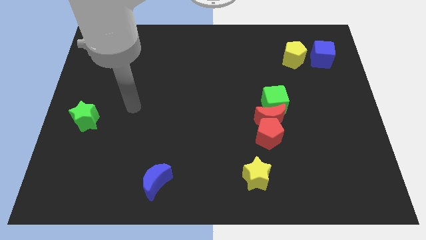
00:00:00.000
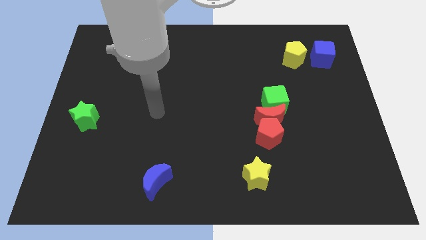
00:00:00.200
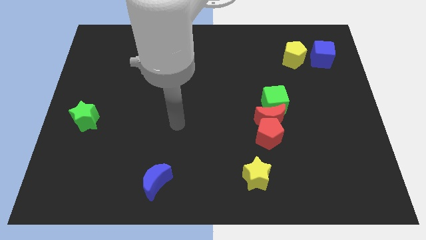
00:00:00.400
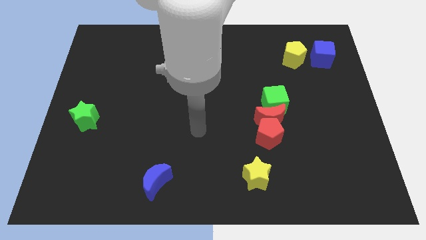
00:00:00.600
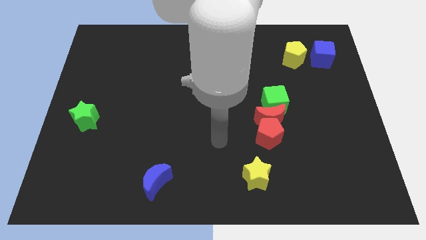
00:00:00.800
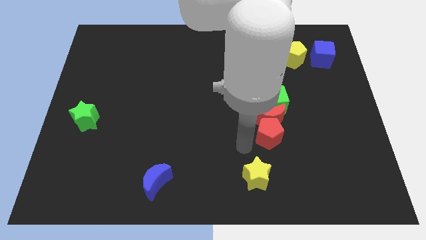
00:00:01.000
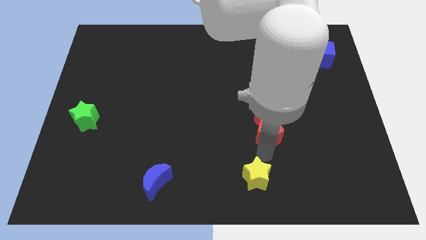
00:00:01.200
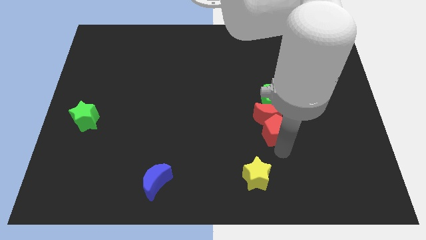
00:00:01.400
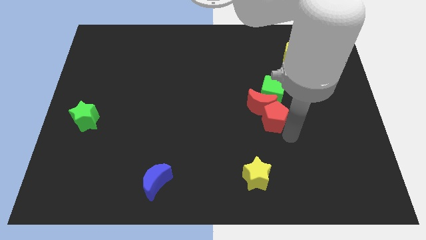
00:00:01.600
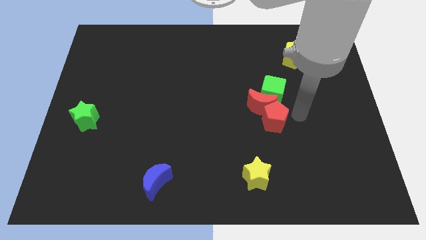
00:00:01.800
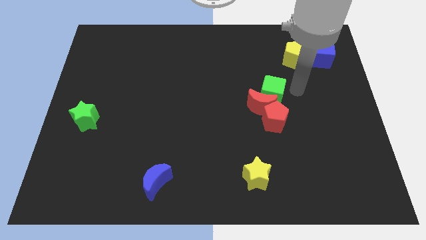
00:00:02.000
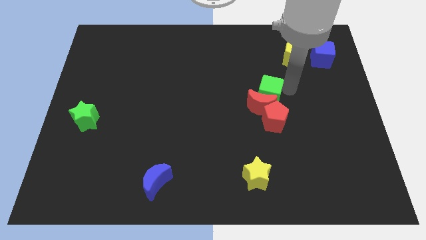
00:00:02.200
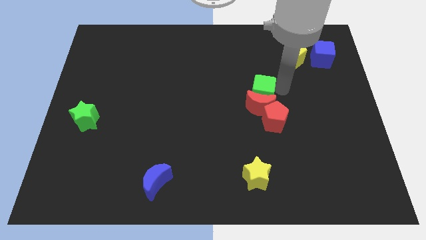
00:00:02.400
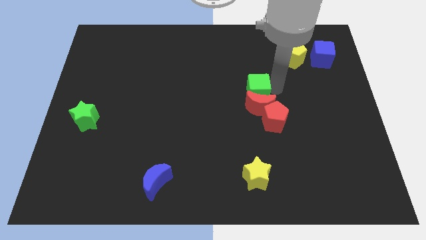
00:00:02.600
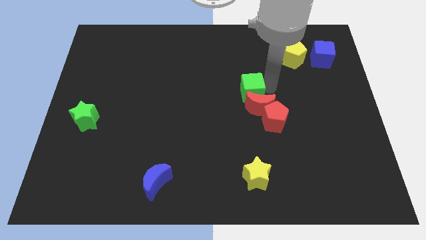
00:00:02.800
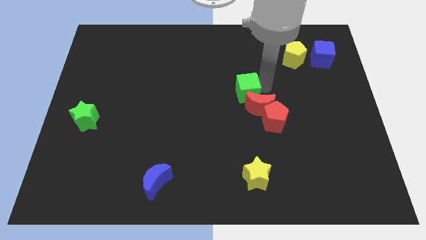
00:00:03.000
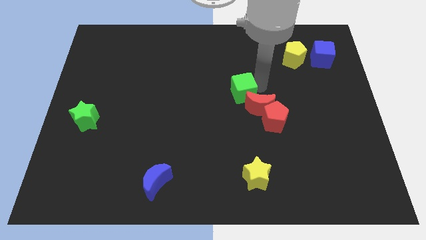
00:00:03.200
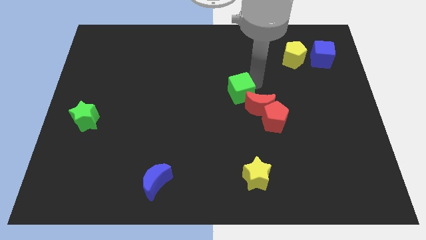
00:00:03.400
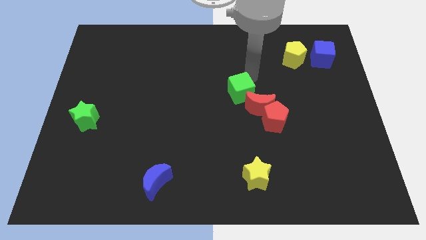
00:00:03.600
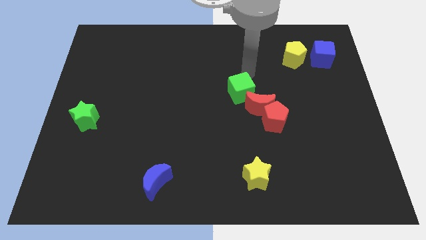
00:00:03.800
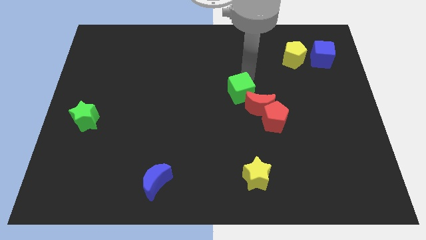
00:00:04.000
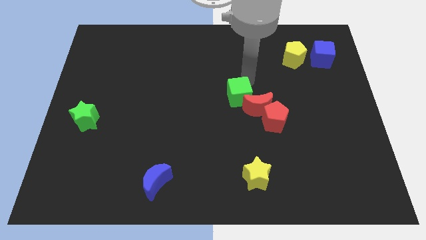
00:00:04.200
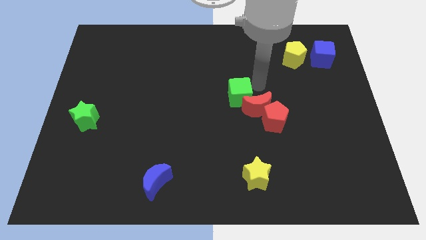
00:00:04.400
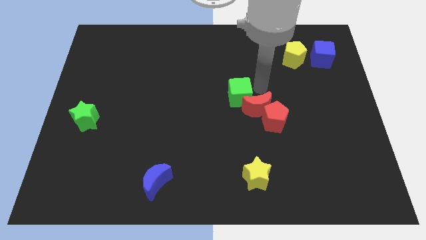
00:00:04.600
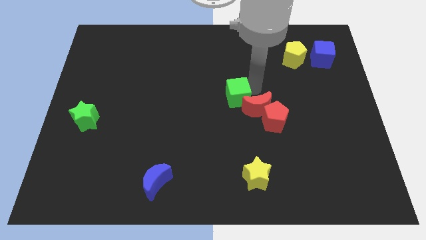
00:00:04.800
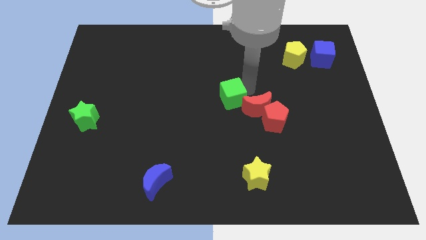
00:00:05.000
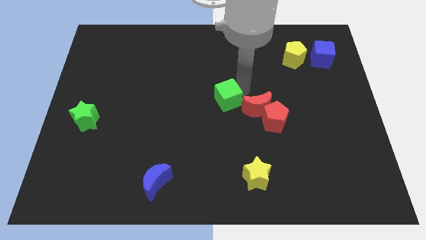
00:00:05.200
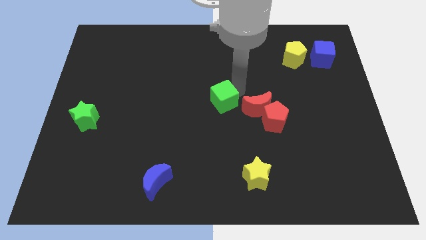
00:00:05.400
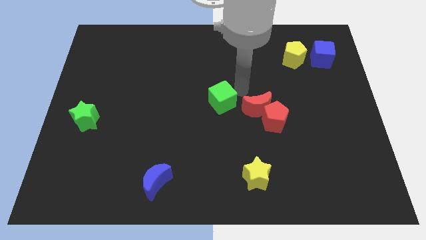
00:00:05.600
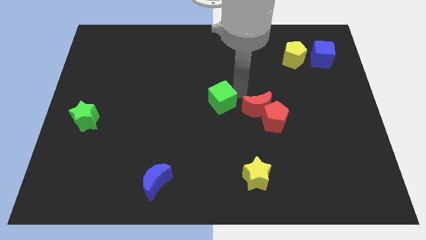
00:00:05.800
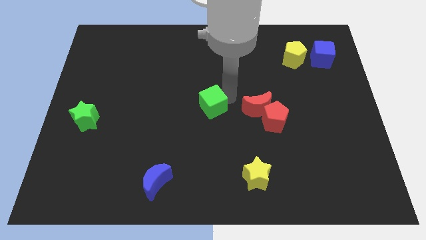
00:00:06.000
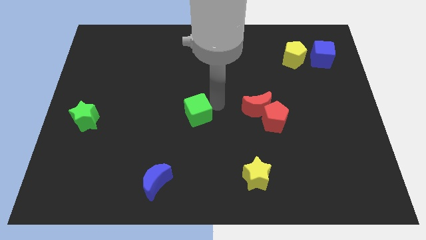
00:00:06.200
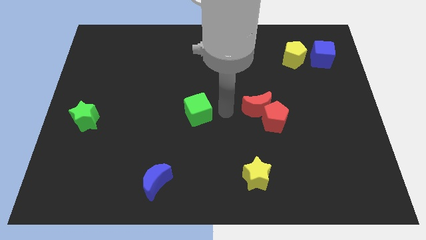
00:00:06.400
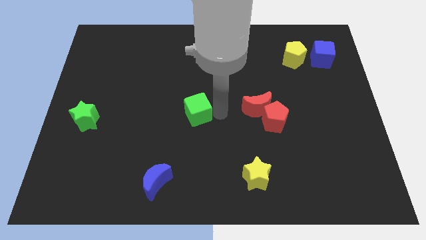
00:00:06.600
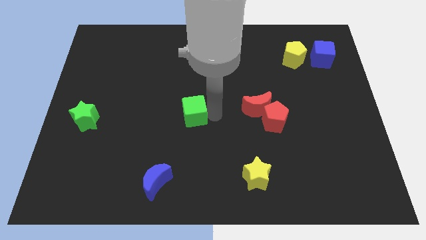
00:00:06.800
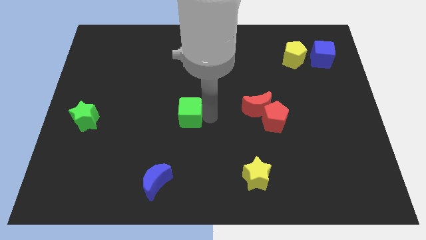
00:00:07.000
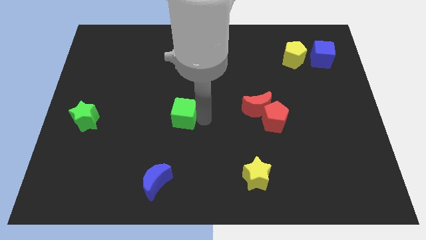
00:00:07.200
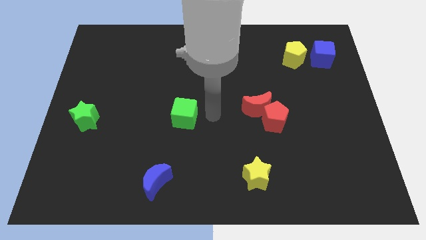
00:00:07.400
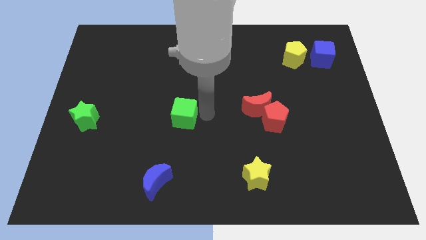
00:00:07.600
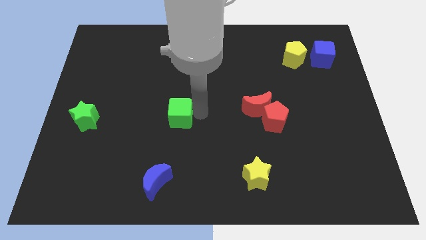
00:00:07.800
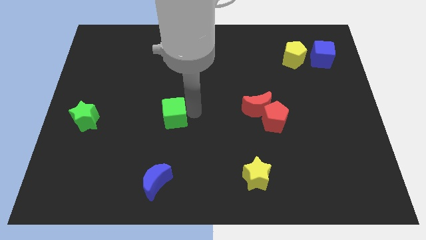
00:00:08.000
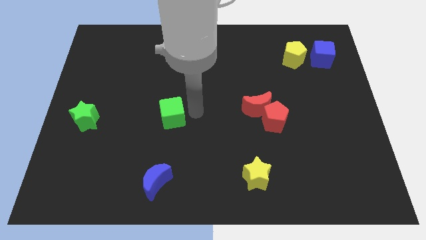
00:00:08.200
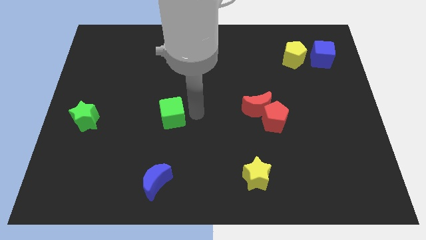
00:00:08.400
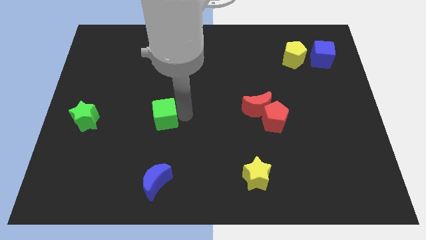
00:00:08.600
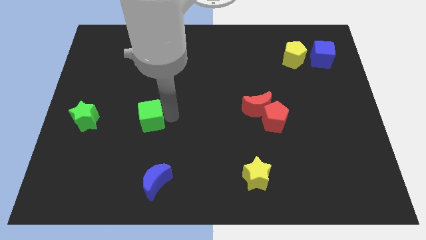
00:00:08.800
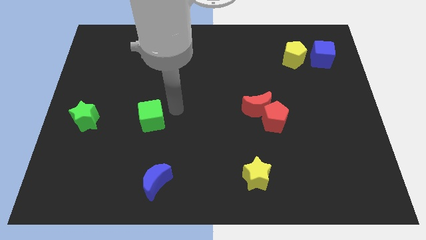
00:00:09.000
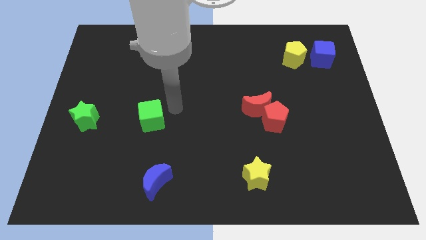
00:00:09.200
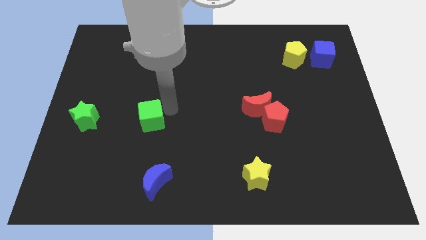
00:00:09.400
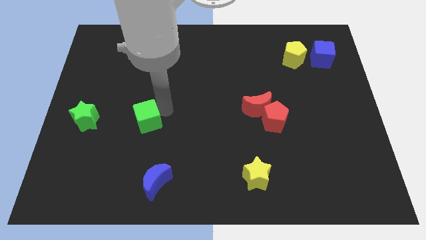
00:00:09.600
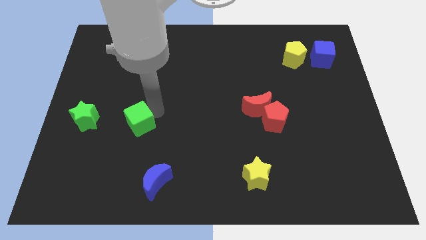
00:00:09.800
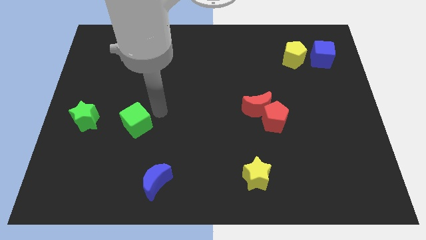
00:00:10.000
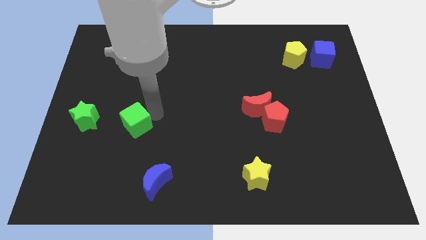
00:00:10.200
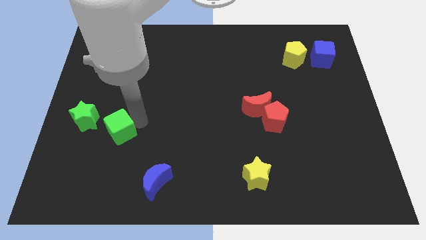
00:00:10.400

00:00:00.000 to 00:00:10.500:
put the green cube diagonally down and to the right of the green star

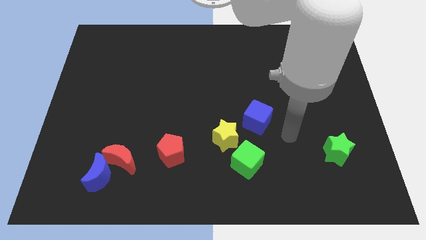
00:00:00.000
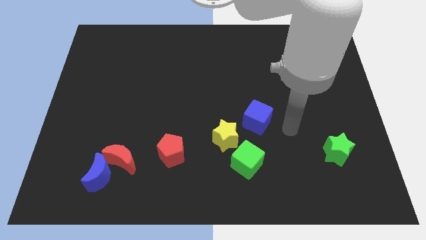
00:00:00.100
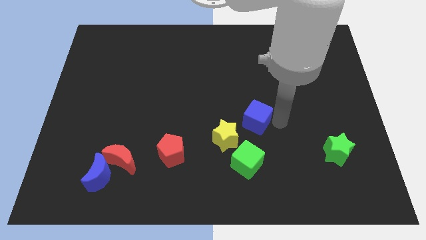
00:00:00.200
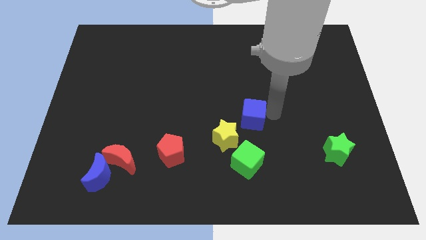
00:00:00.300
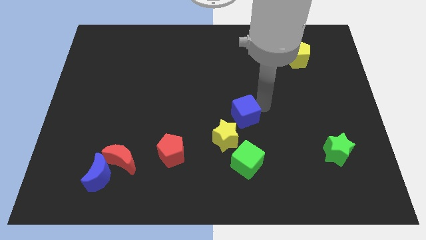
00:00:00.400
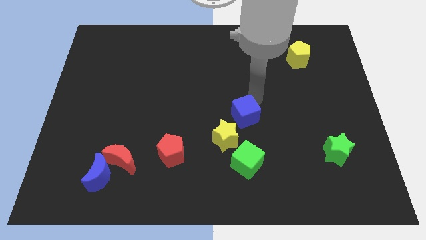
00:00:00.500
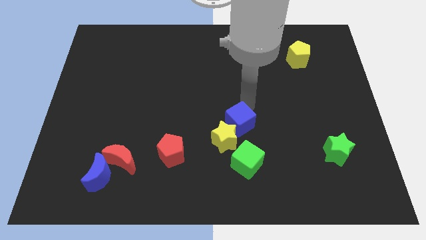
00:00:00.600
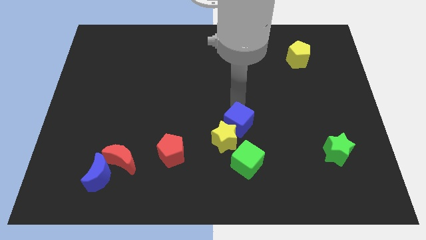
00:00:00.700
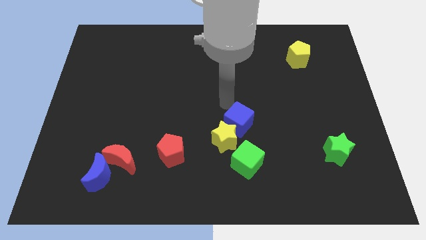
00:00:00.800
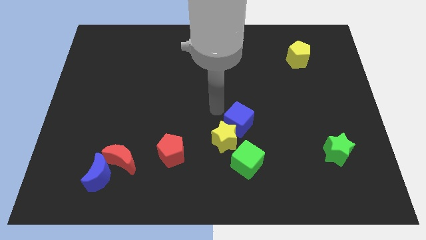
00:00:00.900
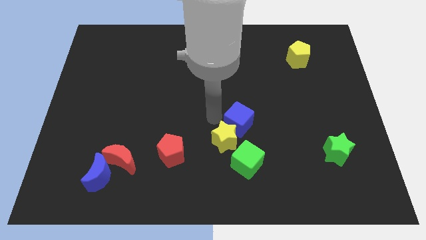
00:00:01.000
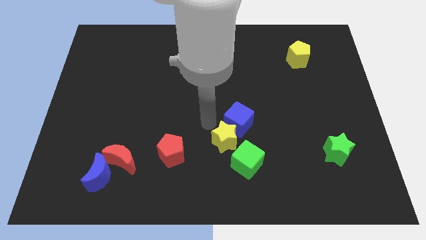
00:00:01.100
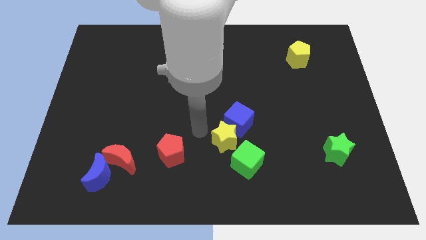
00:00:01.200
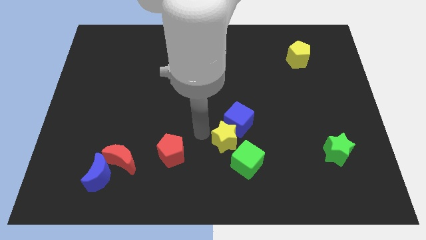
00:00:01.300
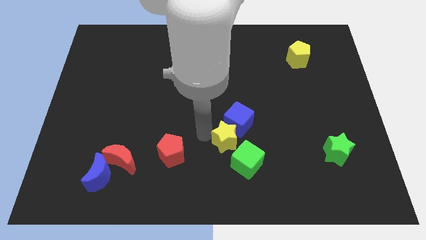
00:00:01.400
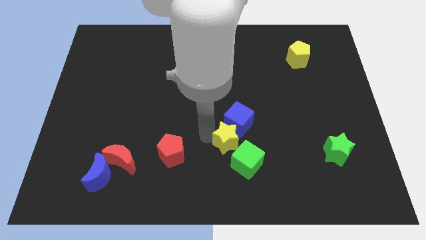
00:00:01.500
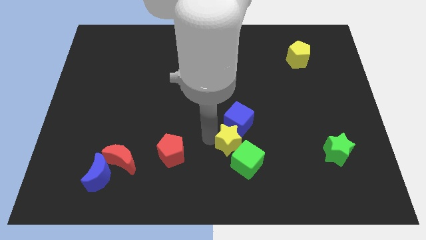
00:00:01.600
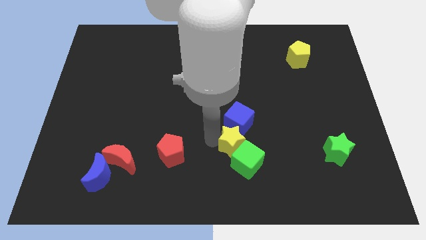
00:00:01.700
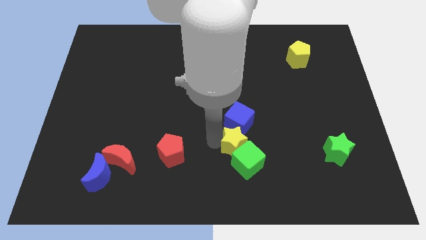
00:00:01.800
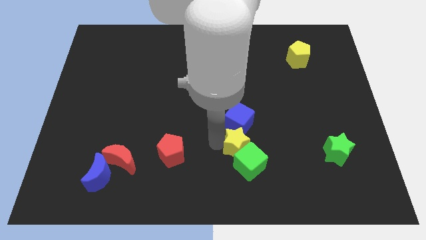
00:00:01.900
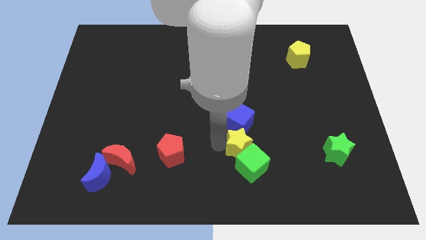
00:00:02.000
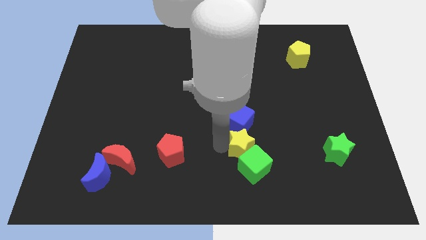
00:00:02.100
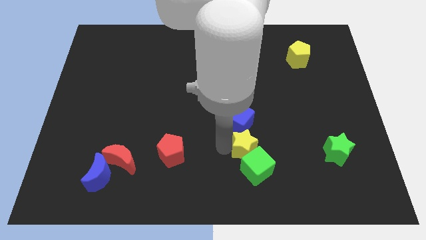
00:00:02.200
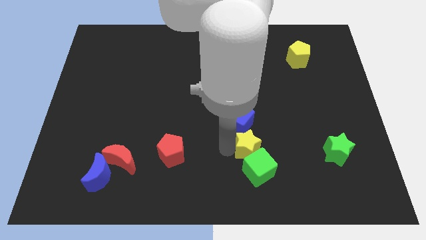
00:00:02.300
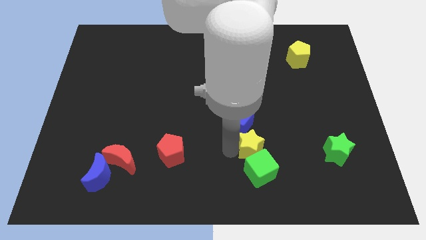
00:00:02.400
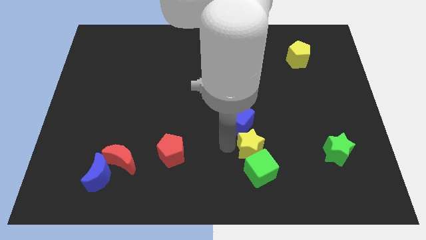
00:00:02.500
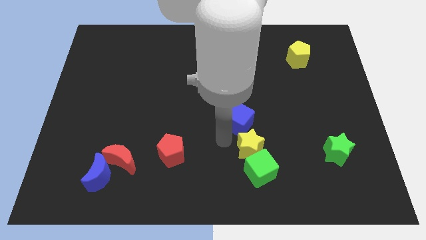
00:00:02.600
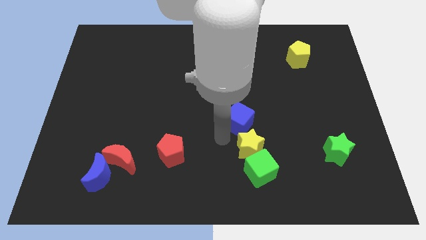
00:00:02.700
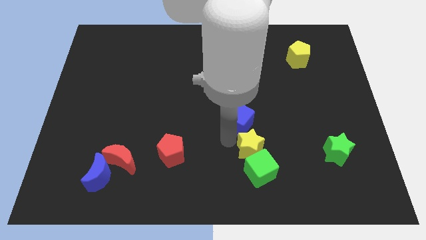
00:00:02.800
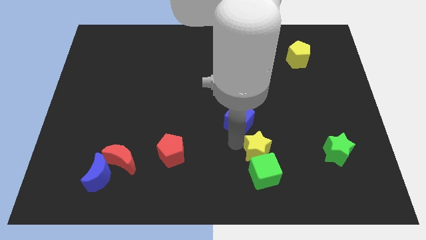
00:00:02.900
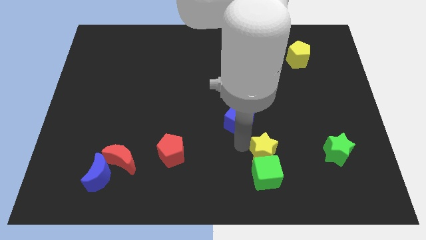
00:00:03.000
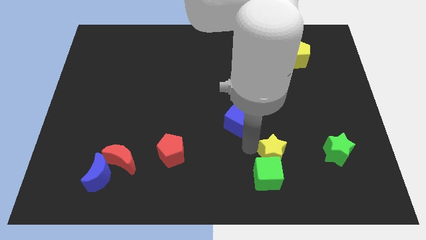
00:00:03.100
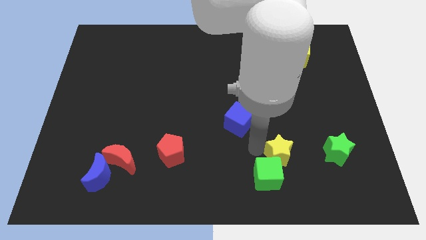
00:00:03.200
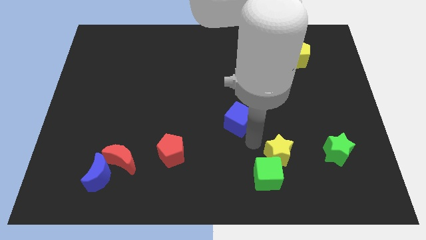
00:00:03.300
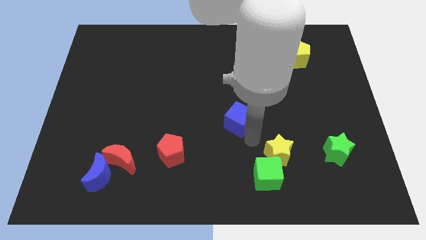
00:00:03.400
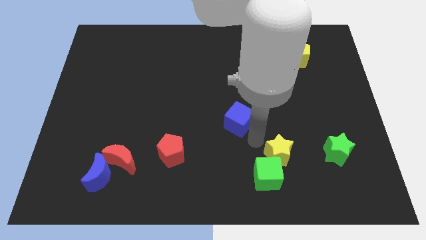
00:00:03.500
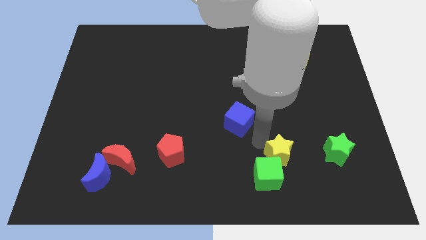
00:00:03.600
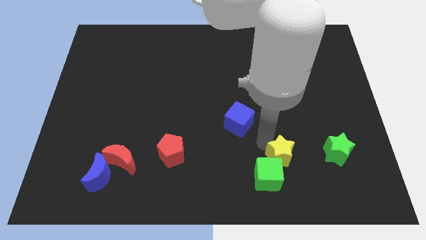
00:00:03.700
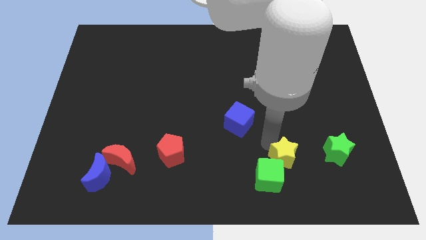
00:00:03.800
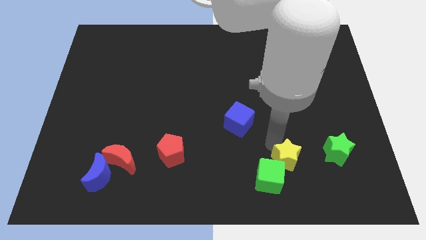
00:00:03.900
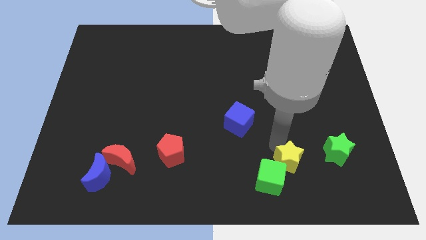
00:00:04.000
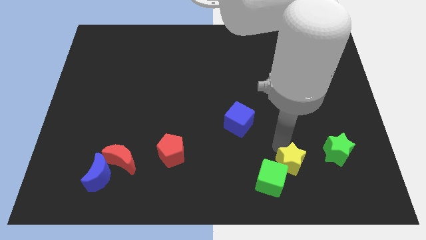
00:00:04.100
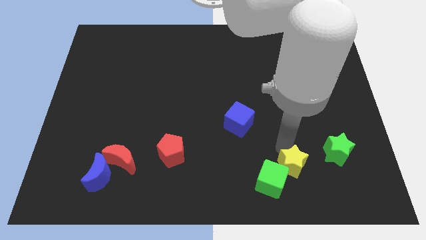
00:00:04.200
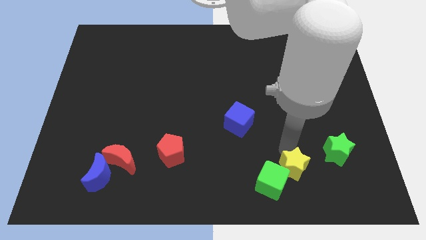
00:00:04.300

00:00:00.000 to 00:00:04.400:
push the yellow star diagonally down and to the left of the green star
